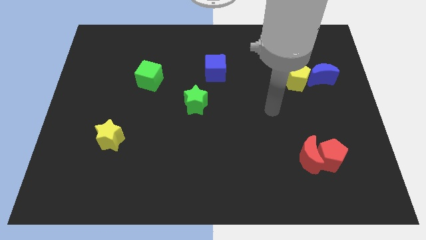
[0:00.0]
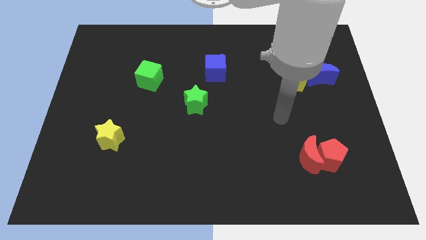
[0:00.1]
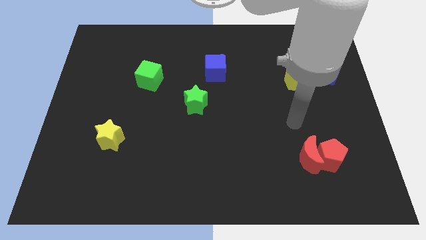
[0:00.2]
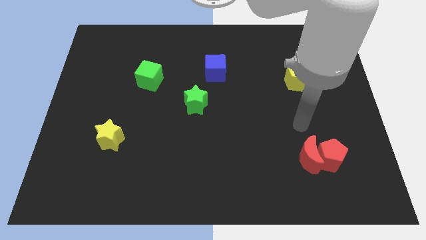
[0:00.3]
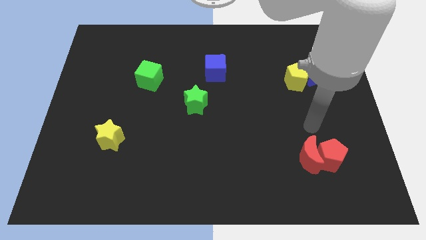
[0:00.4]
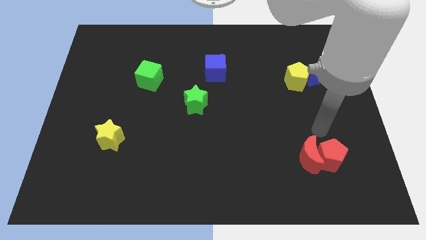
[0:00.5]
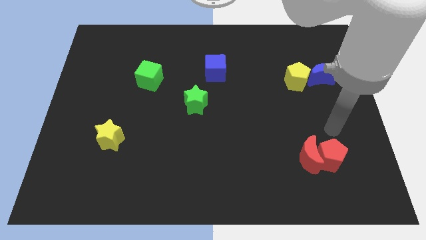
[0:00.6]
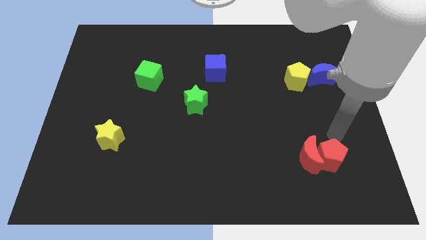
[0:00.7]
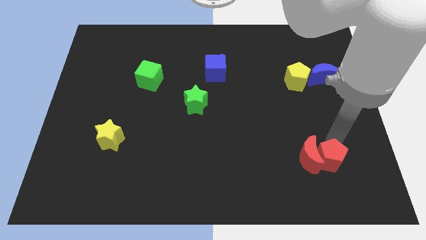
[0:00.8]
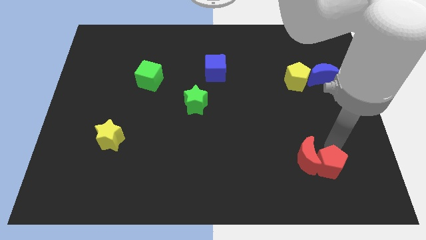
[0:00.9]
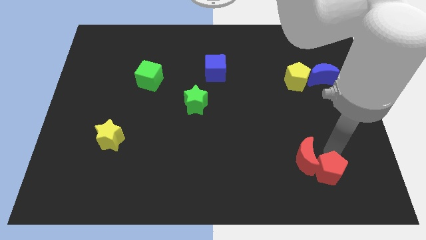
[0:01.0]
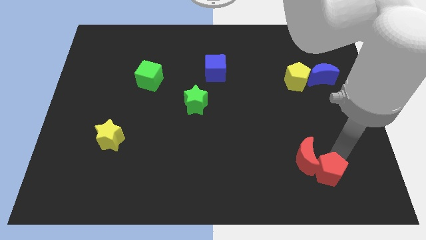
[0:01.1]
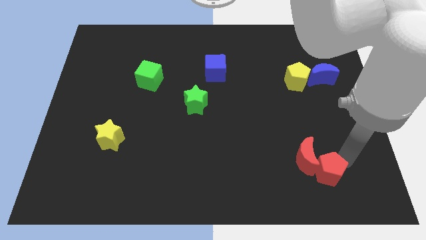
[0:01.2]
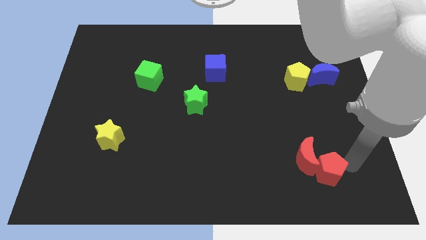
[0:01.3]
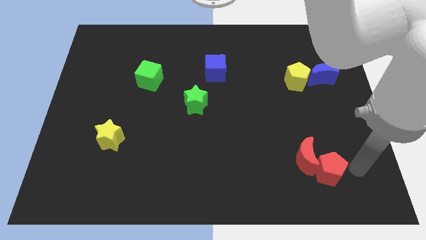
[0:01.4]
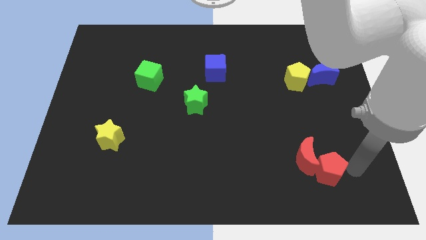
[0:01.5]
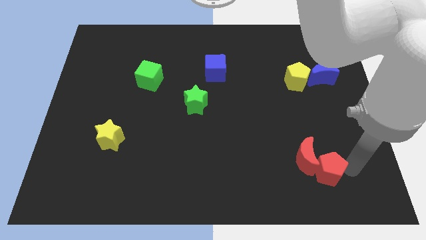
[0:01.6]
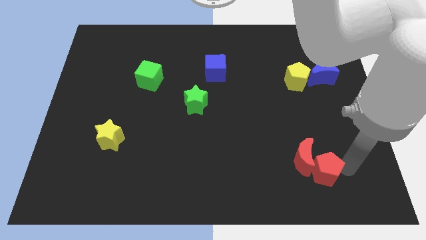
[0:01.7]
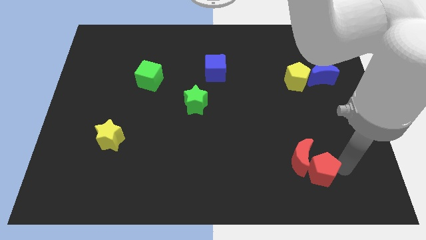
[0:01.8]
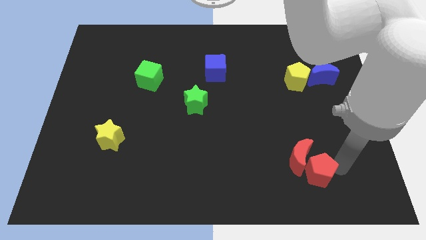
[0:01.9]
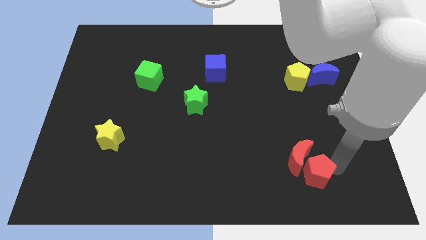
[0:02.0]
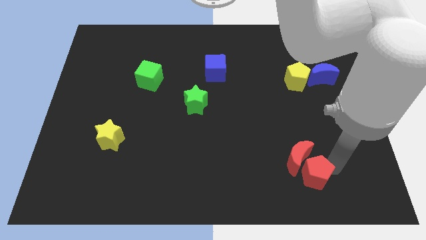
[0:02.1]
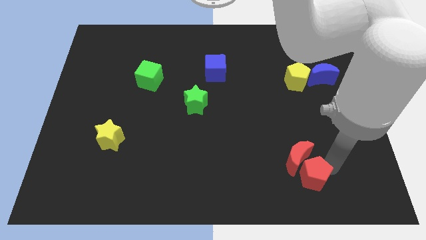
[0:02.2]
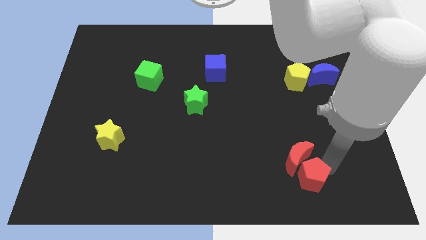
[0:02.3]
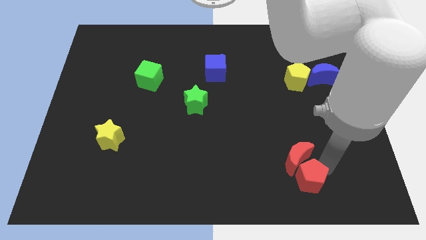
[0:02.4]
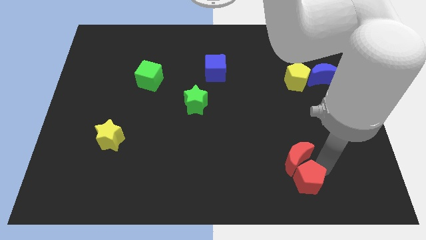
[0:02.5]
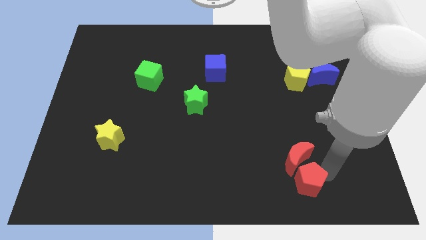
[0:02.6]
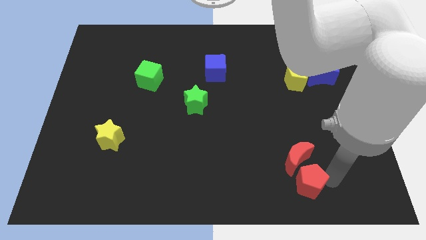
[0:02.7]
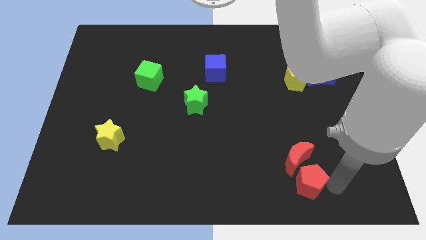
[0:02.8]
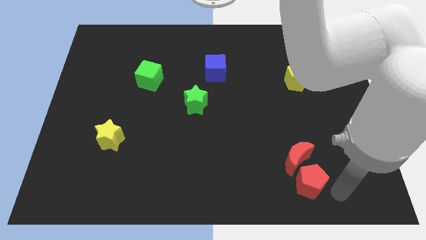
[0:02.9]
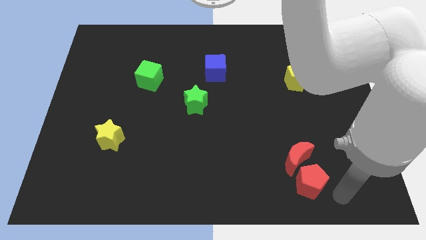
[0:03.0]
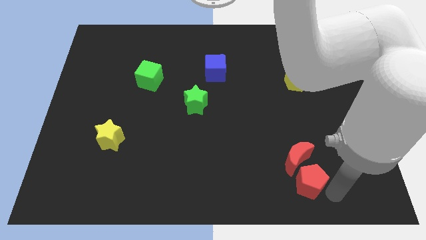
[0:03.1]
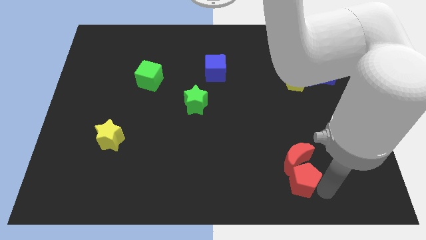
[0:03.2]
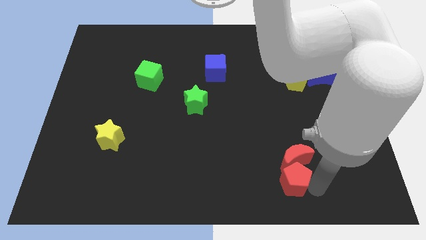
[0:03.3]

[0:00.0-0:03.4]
move the red pentagon a bit to the left

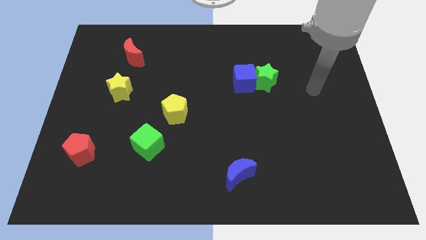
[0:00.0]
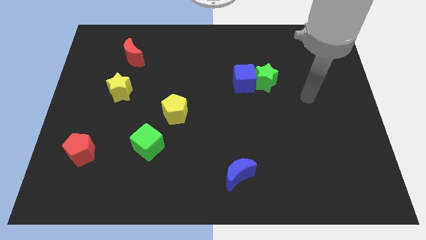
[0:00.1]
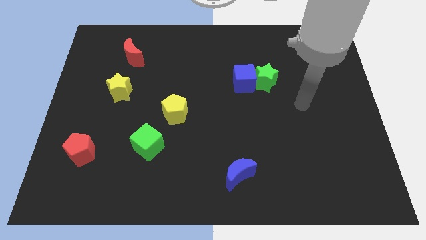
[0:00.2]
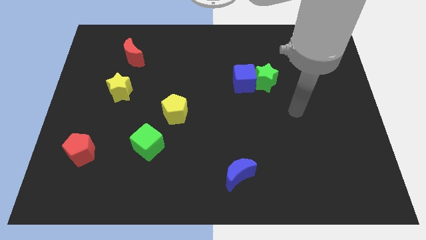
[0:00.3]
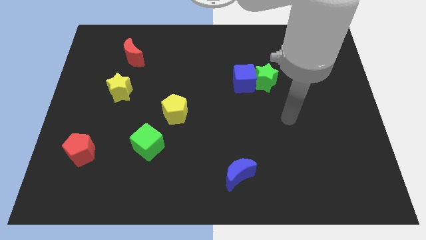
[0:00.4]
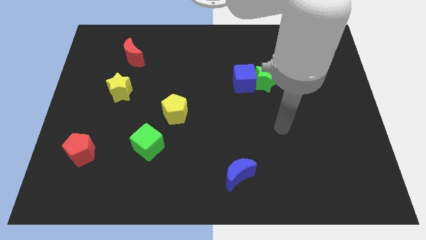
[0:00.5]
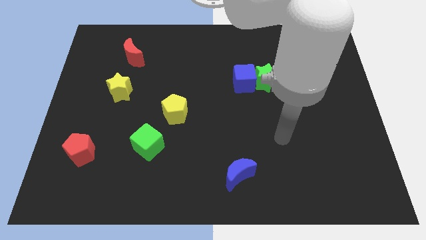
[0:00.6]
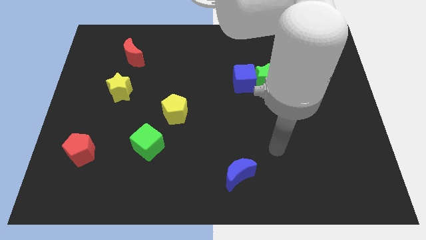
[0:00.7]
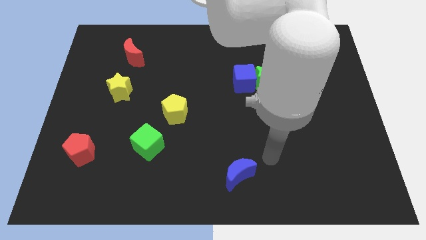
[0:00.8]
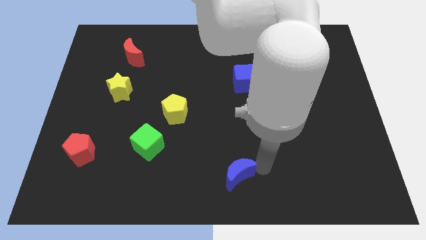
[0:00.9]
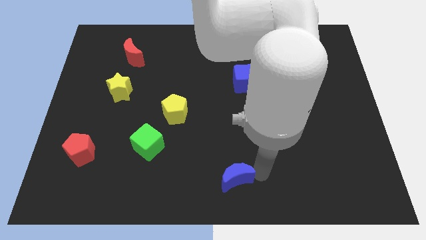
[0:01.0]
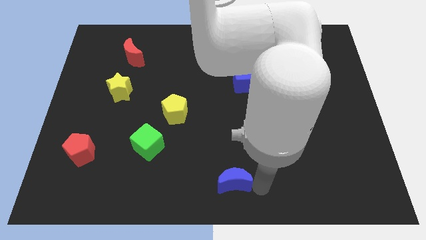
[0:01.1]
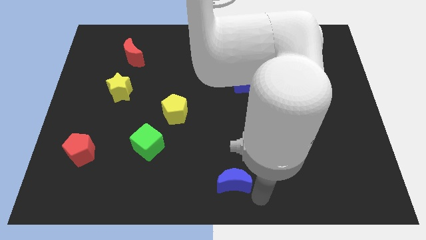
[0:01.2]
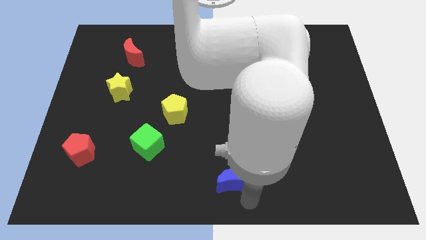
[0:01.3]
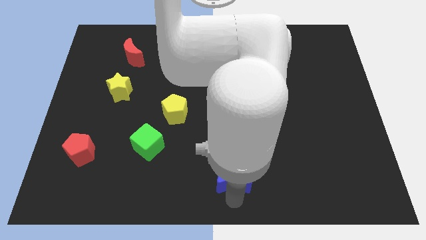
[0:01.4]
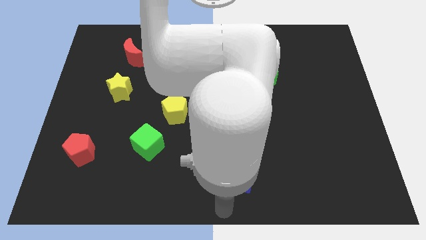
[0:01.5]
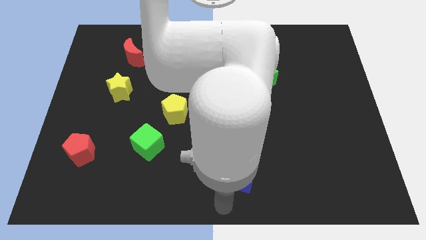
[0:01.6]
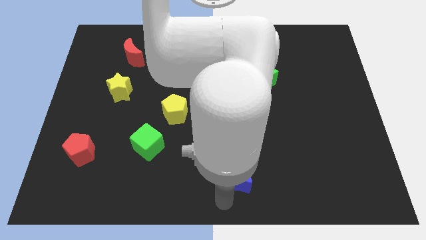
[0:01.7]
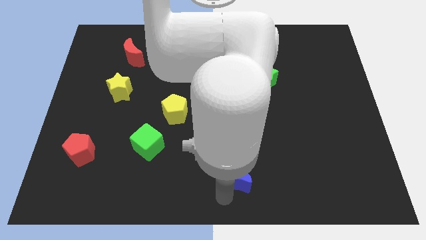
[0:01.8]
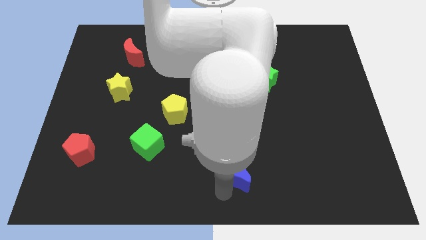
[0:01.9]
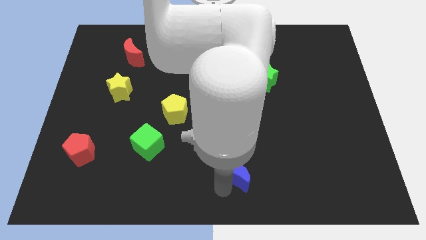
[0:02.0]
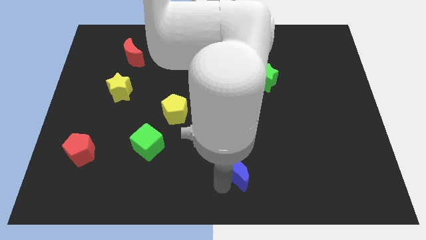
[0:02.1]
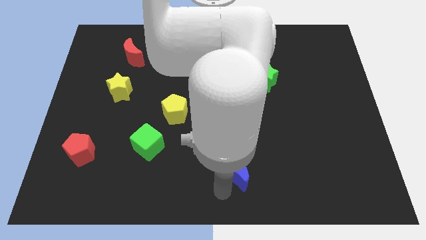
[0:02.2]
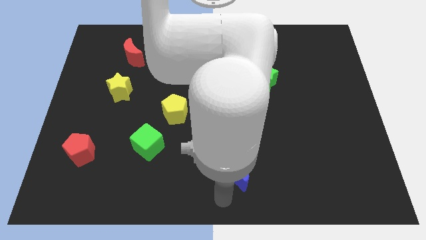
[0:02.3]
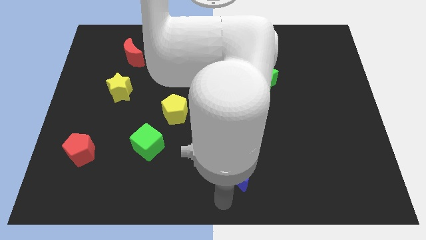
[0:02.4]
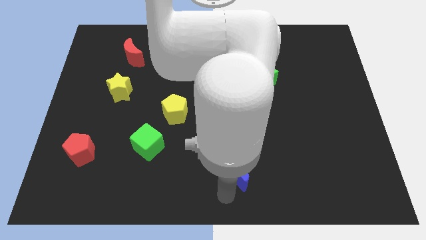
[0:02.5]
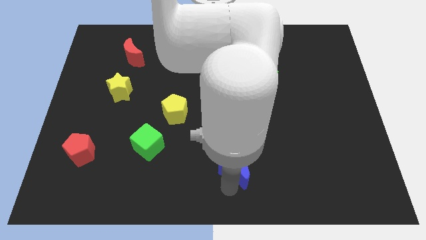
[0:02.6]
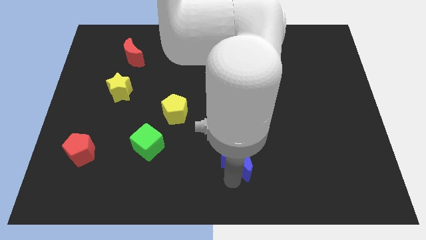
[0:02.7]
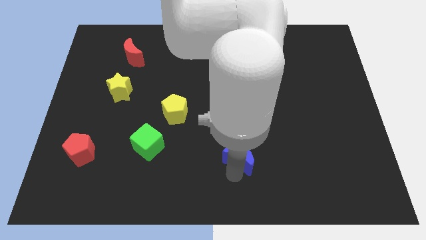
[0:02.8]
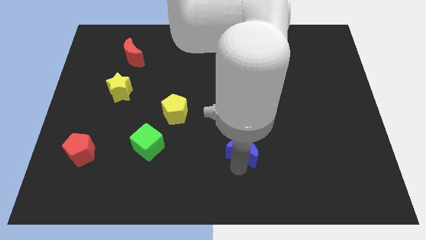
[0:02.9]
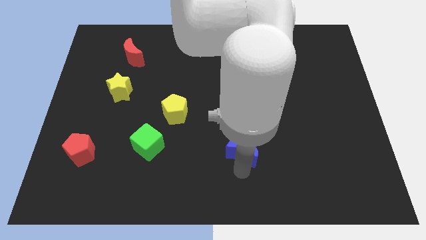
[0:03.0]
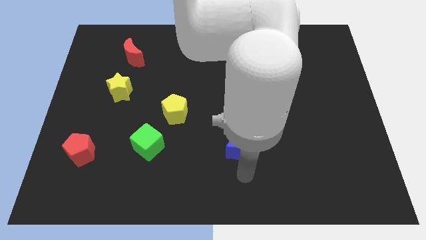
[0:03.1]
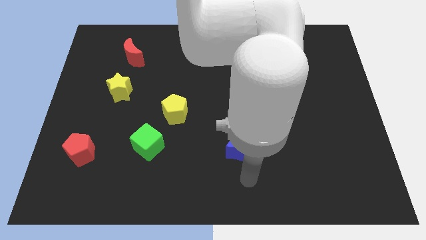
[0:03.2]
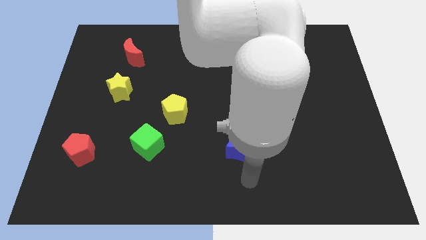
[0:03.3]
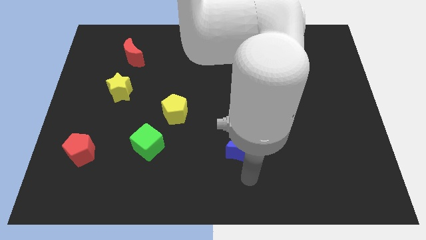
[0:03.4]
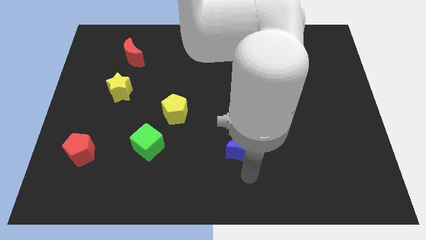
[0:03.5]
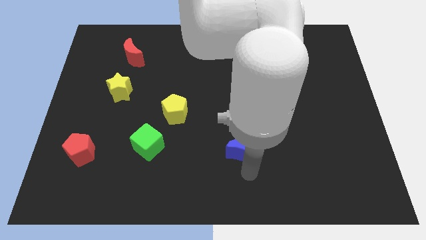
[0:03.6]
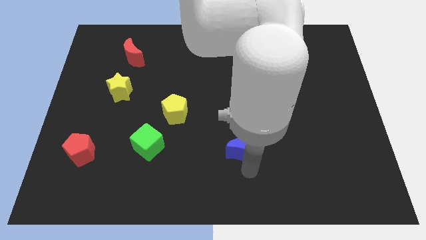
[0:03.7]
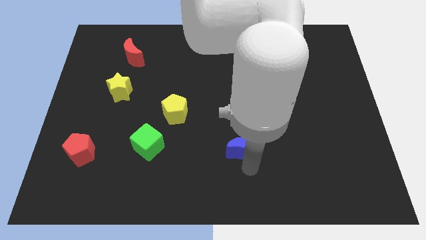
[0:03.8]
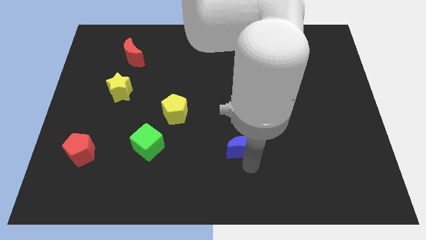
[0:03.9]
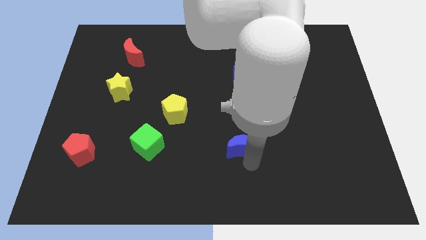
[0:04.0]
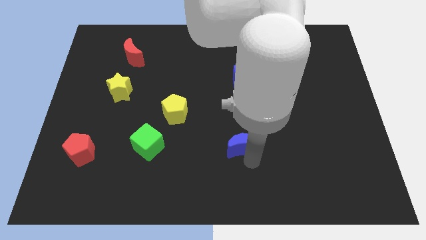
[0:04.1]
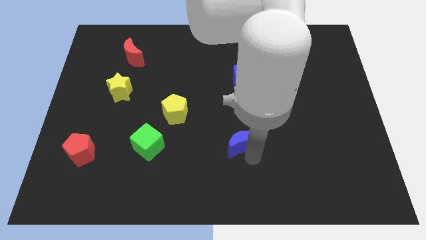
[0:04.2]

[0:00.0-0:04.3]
slide the blue moon upwards a bit

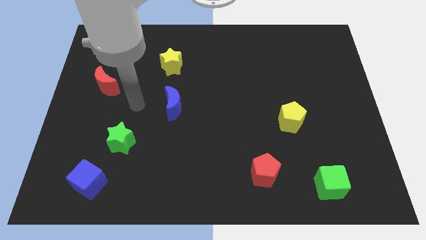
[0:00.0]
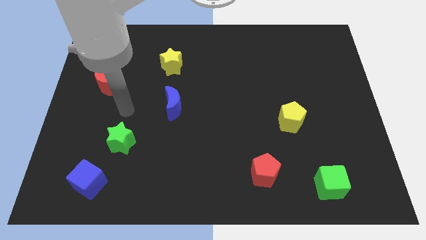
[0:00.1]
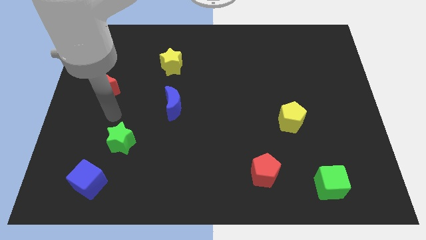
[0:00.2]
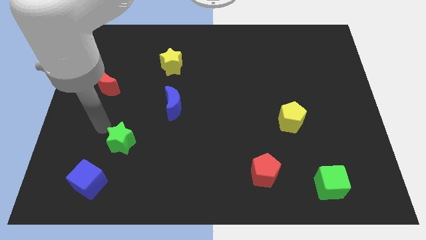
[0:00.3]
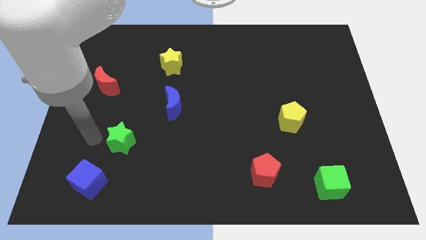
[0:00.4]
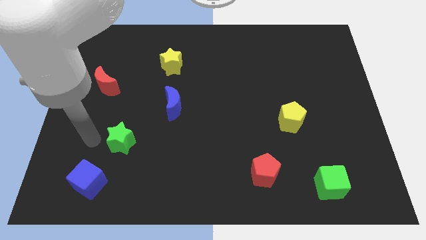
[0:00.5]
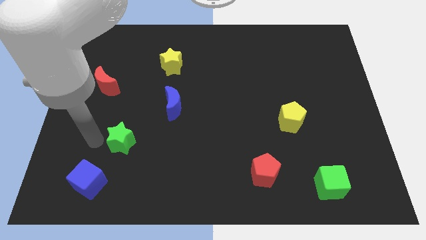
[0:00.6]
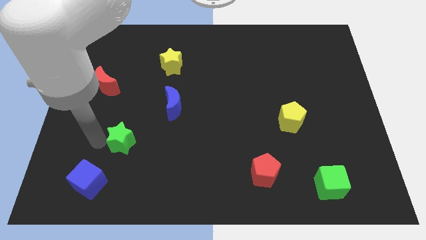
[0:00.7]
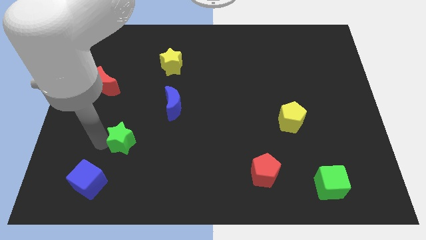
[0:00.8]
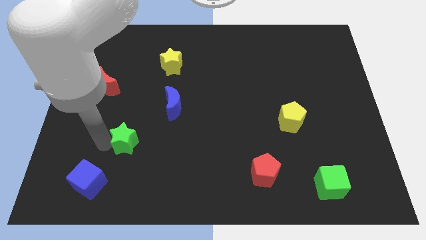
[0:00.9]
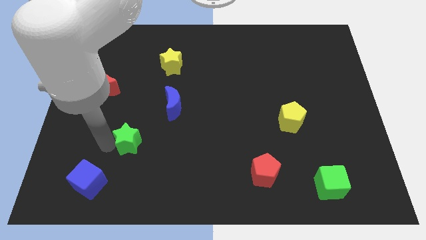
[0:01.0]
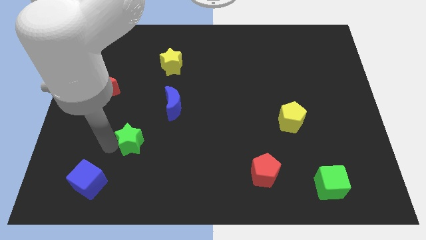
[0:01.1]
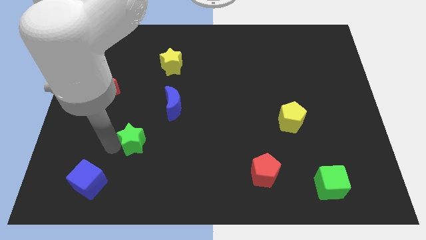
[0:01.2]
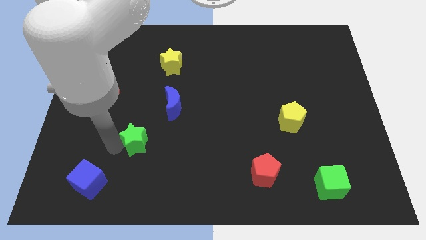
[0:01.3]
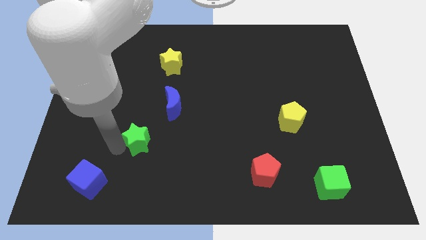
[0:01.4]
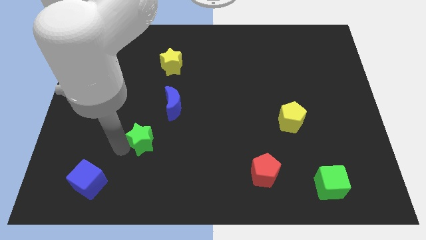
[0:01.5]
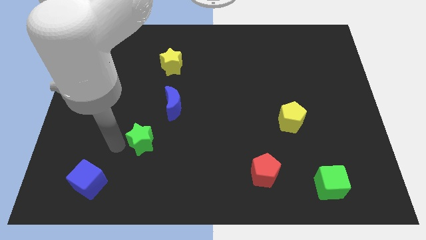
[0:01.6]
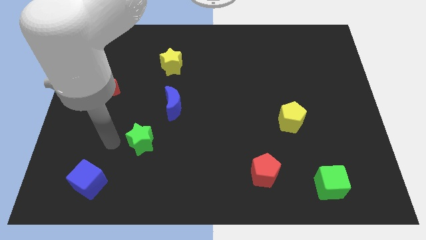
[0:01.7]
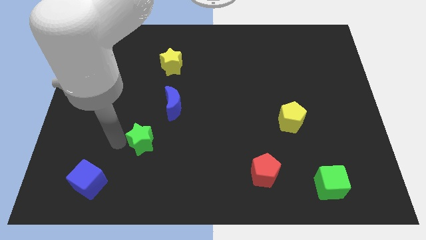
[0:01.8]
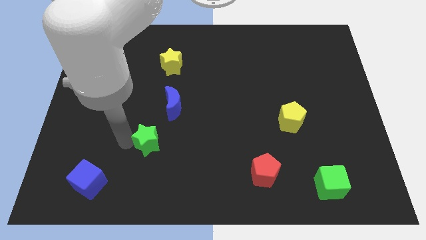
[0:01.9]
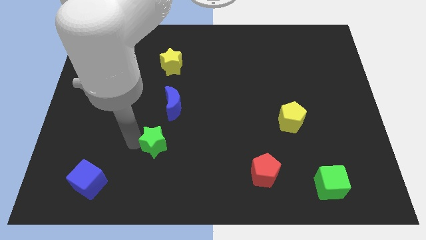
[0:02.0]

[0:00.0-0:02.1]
move the green star to the right somewhat
